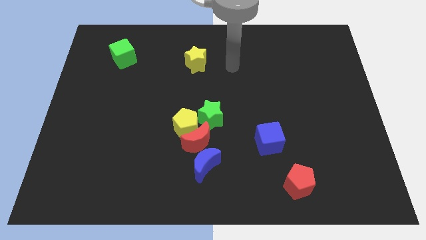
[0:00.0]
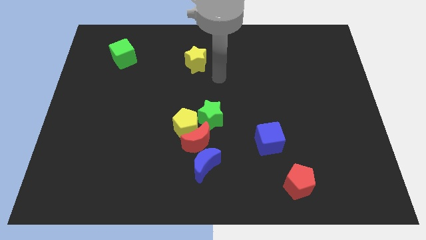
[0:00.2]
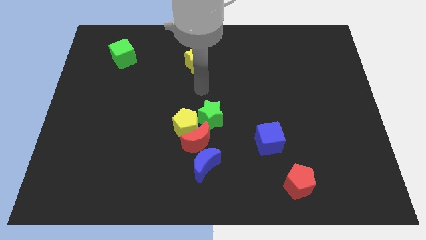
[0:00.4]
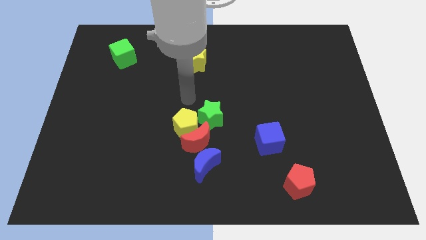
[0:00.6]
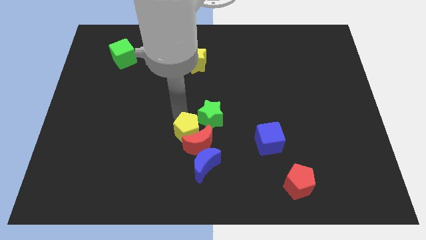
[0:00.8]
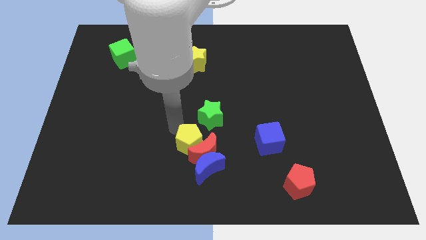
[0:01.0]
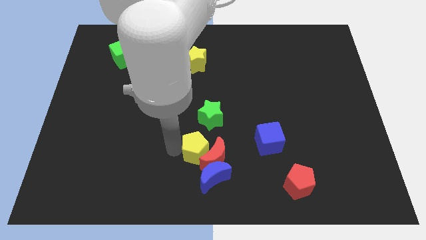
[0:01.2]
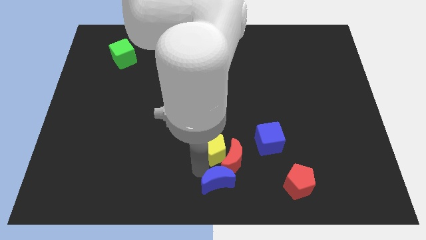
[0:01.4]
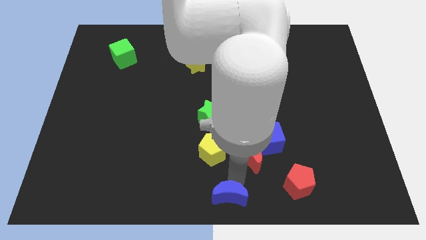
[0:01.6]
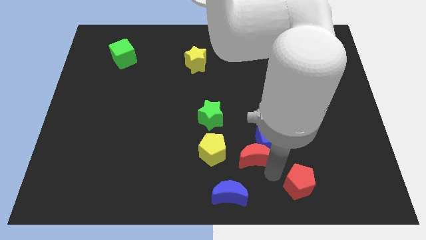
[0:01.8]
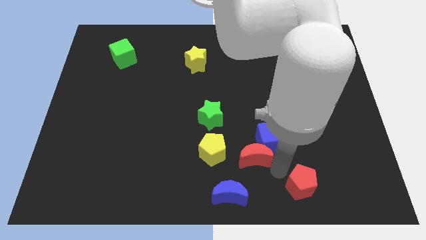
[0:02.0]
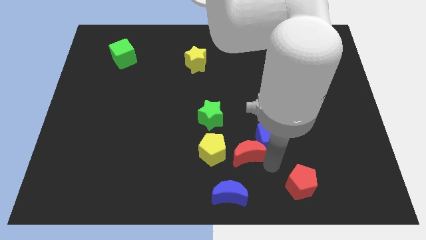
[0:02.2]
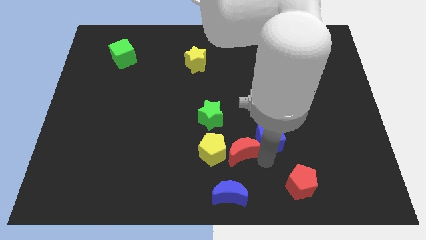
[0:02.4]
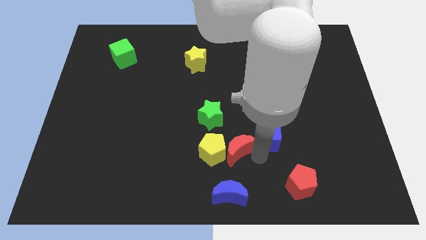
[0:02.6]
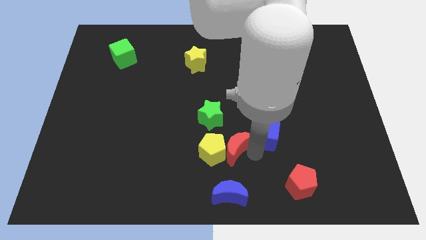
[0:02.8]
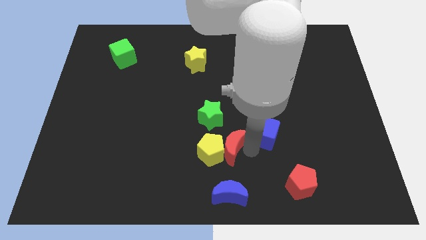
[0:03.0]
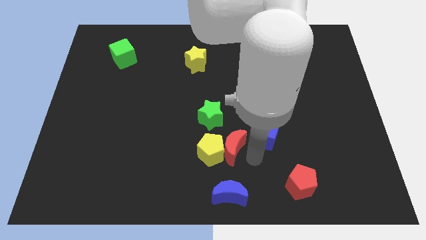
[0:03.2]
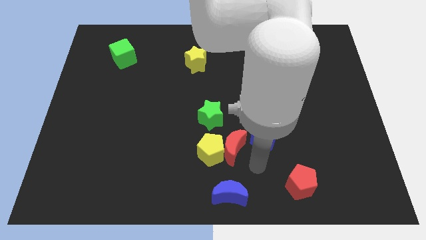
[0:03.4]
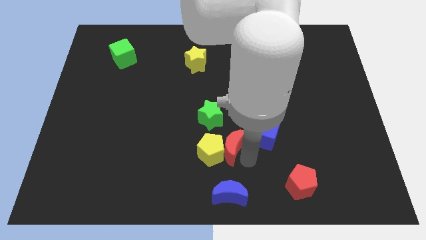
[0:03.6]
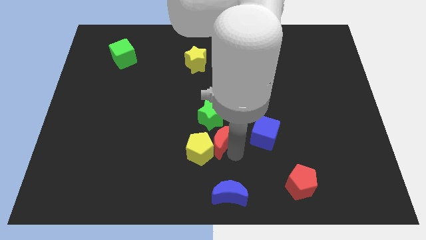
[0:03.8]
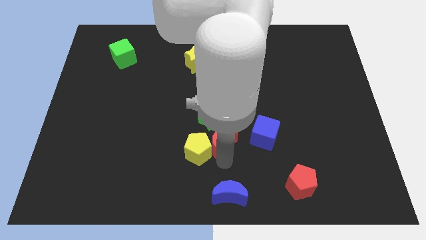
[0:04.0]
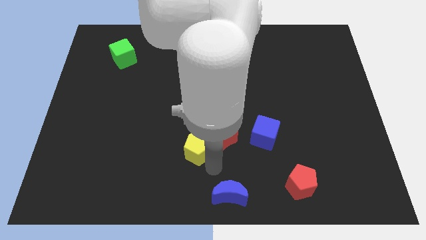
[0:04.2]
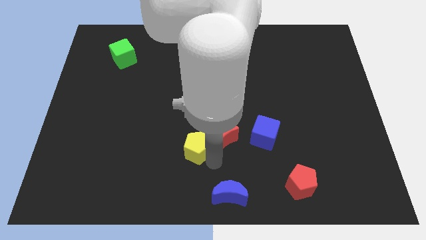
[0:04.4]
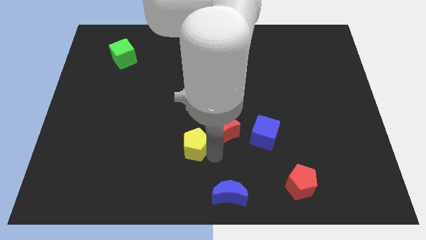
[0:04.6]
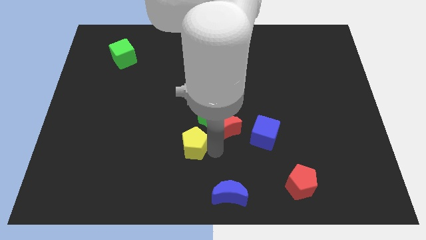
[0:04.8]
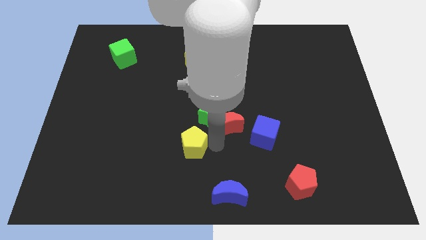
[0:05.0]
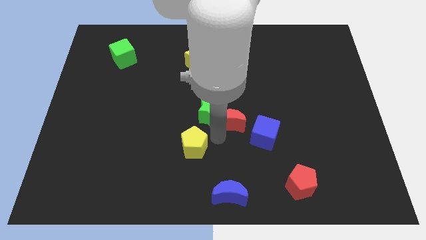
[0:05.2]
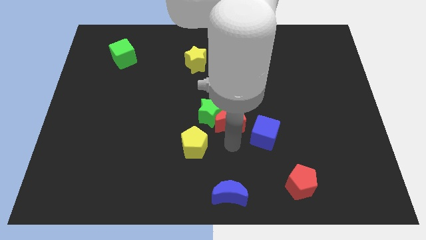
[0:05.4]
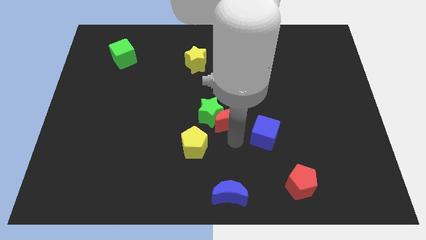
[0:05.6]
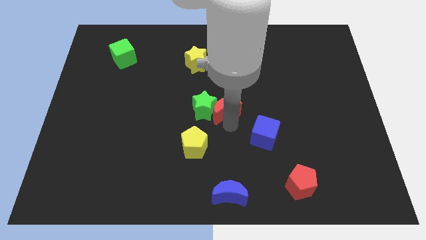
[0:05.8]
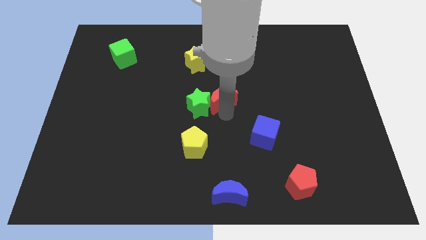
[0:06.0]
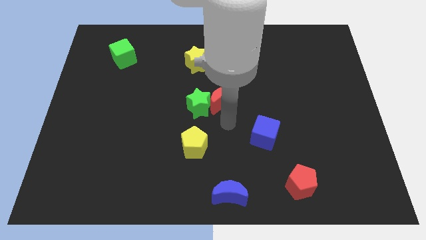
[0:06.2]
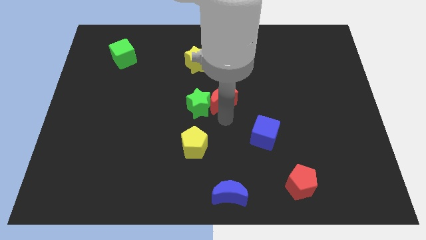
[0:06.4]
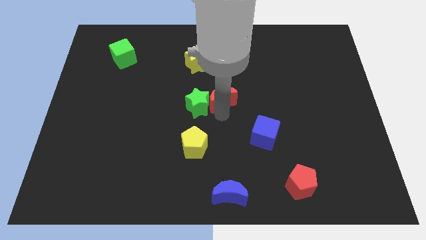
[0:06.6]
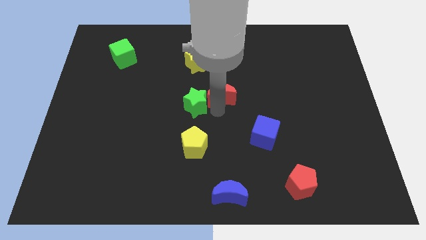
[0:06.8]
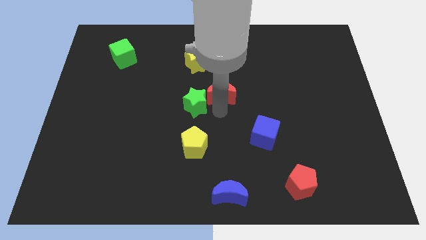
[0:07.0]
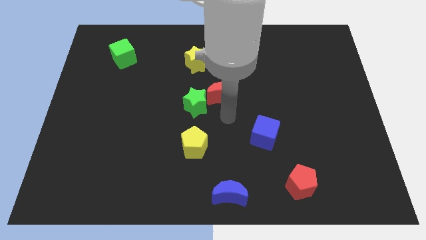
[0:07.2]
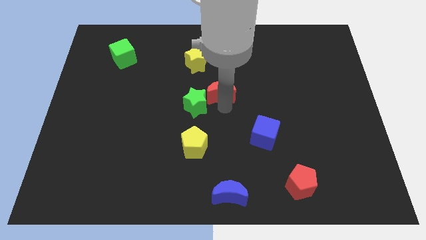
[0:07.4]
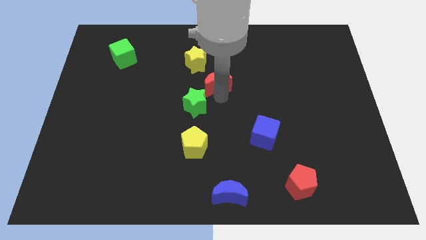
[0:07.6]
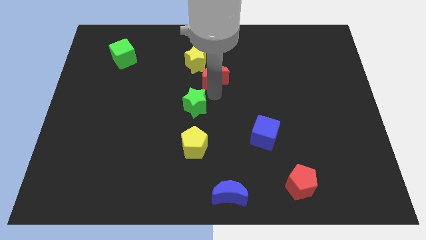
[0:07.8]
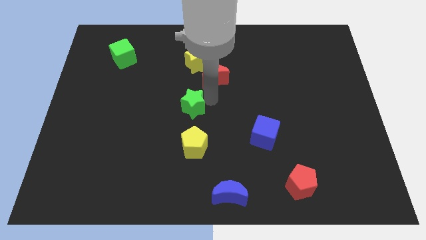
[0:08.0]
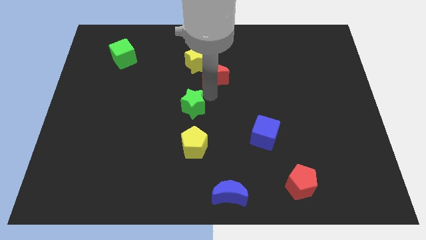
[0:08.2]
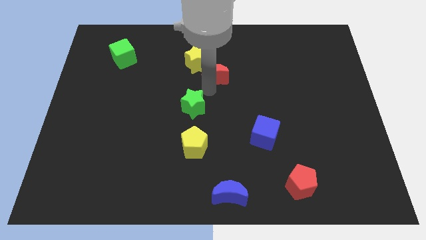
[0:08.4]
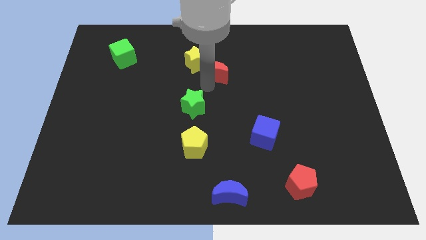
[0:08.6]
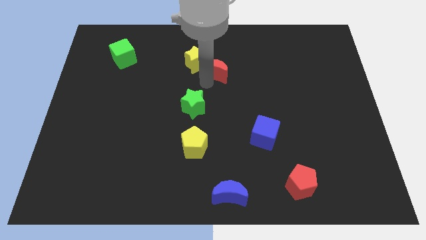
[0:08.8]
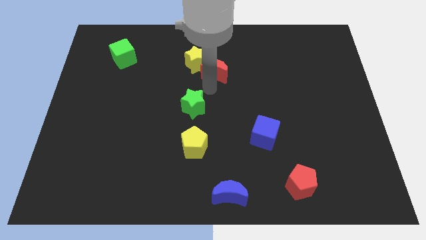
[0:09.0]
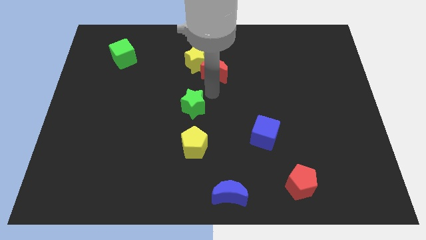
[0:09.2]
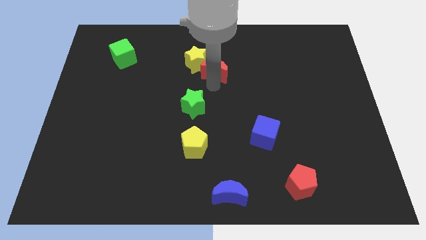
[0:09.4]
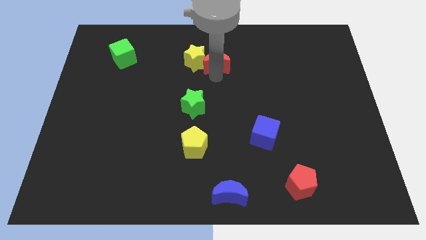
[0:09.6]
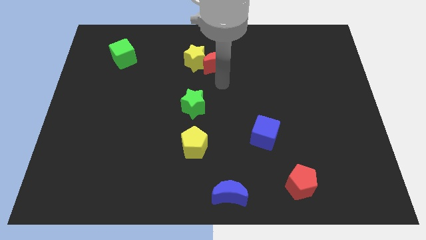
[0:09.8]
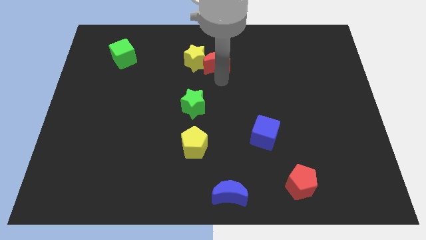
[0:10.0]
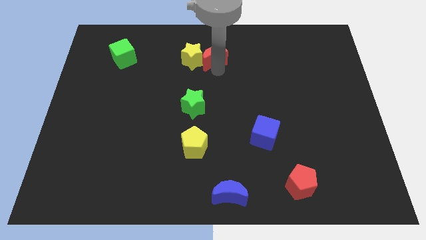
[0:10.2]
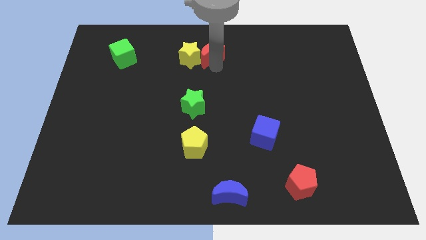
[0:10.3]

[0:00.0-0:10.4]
push the red moon to the top side
